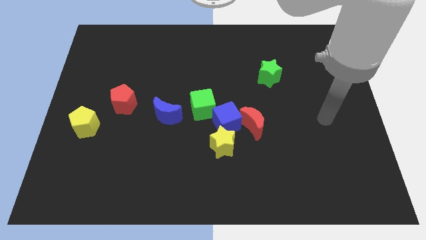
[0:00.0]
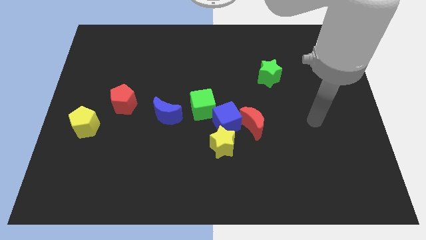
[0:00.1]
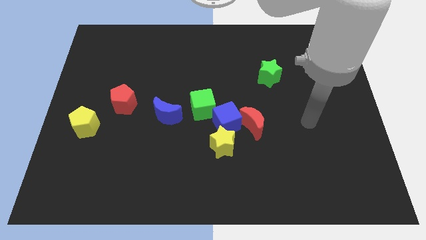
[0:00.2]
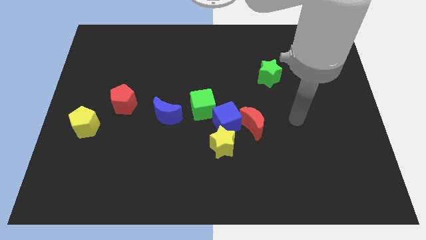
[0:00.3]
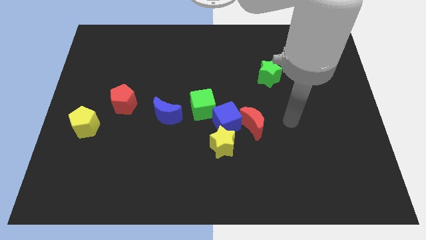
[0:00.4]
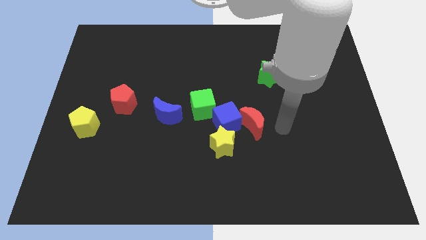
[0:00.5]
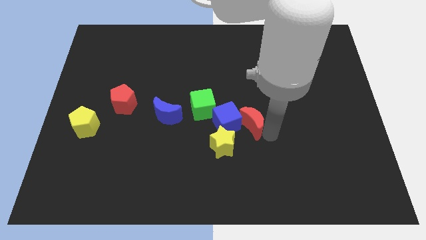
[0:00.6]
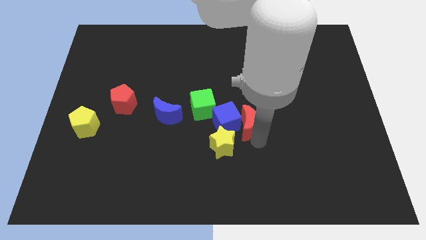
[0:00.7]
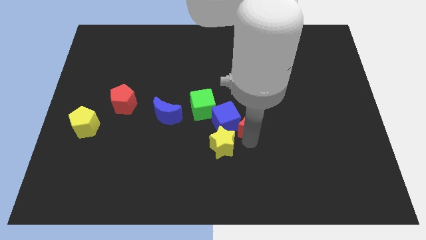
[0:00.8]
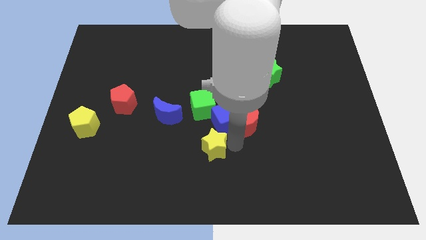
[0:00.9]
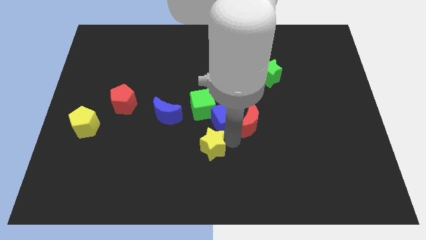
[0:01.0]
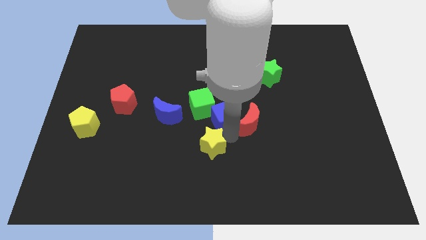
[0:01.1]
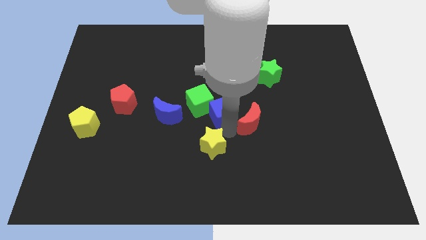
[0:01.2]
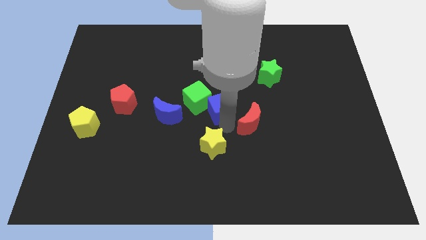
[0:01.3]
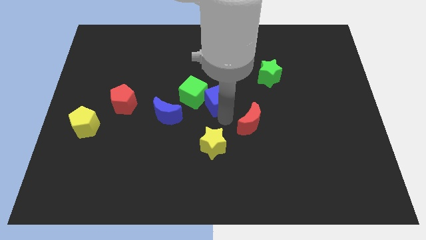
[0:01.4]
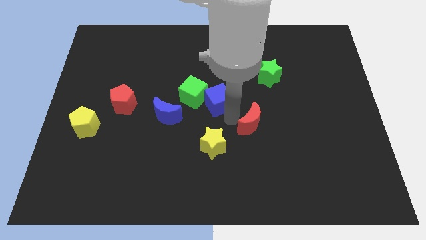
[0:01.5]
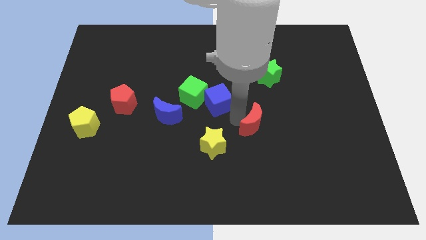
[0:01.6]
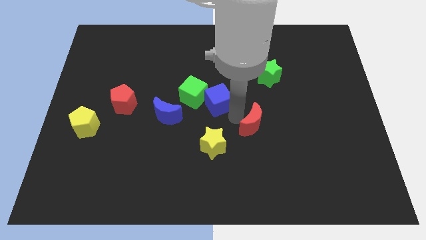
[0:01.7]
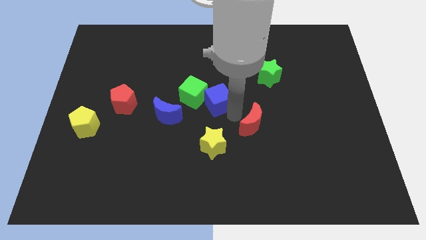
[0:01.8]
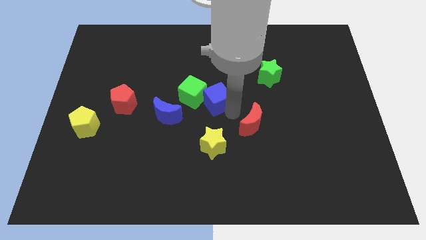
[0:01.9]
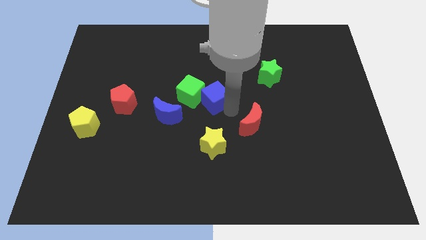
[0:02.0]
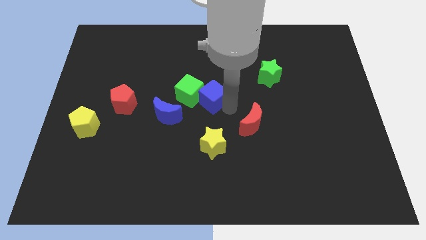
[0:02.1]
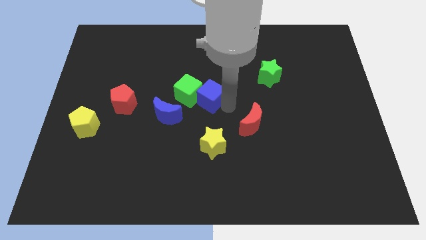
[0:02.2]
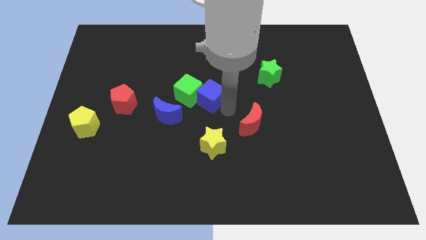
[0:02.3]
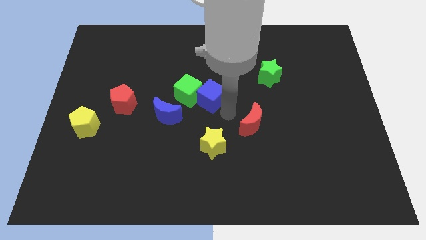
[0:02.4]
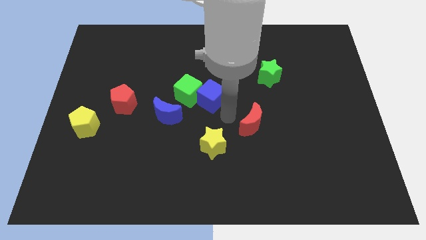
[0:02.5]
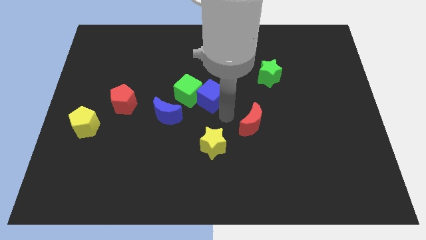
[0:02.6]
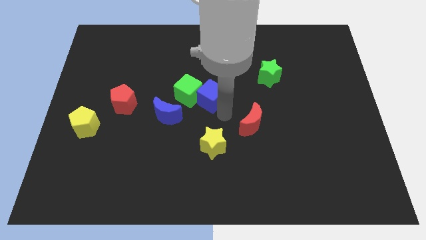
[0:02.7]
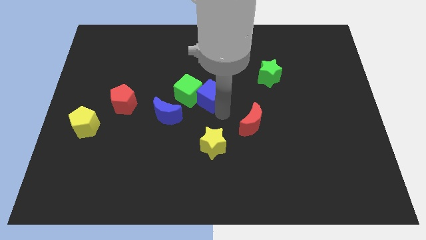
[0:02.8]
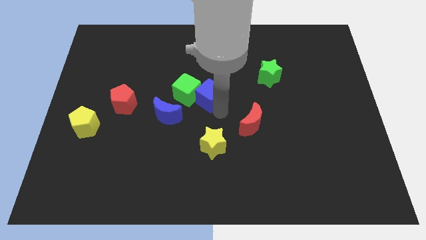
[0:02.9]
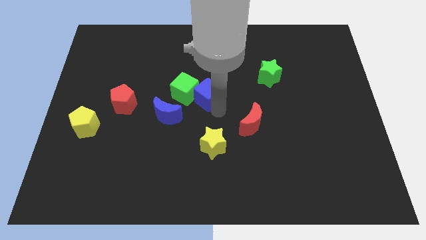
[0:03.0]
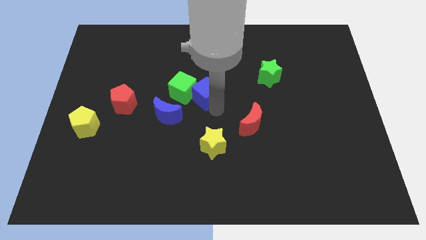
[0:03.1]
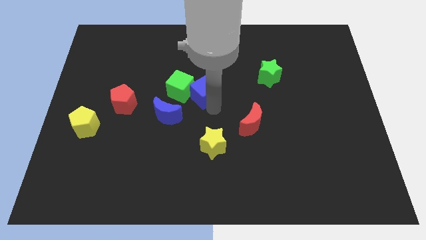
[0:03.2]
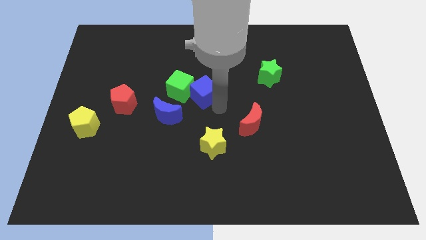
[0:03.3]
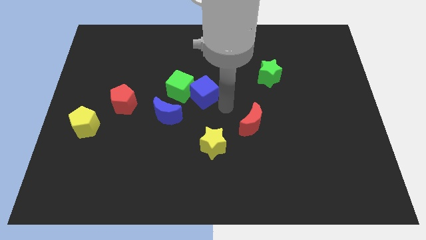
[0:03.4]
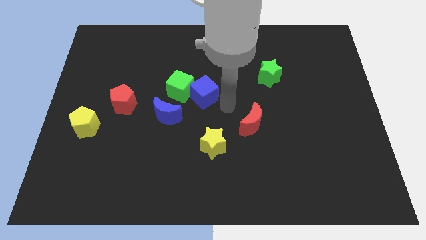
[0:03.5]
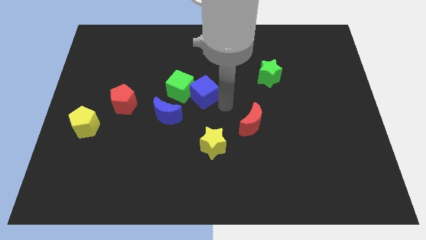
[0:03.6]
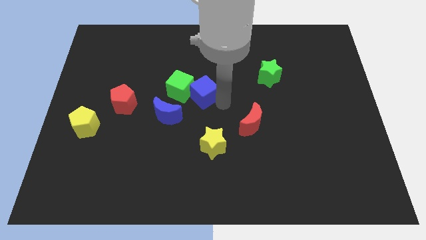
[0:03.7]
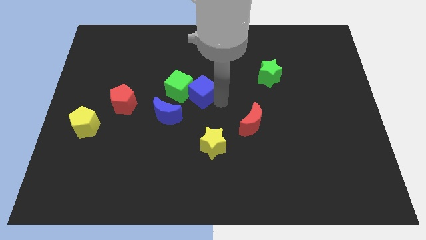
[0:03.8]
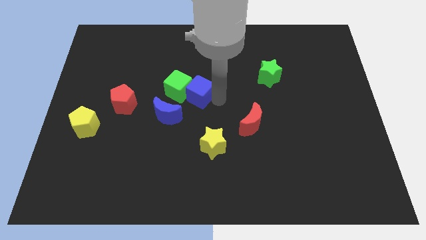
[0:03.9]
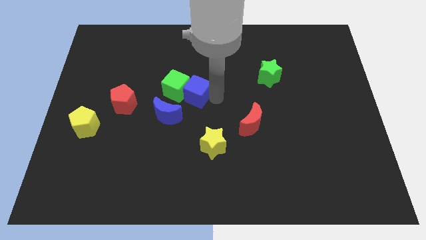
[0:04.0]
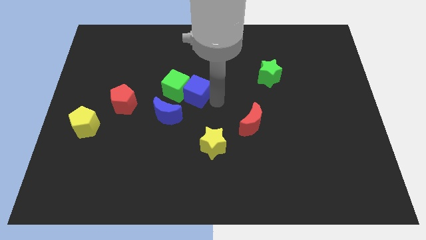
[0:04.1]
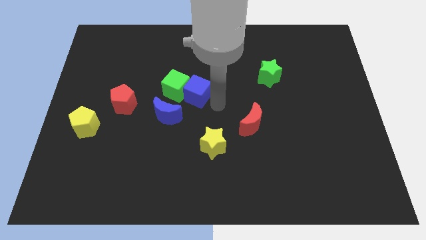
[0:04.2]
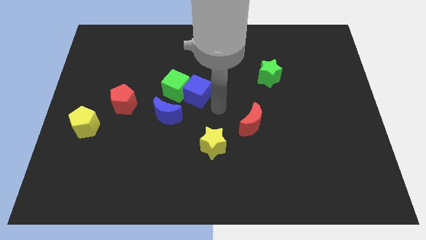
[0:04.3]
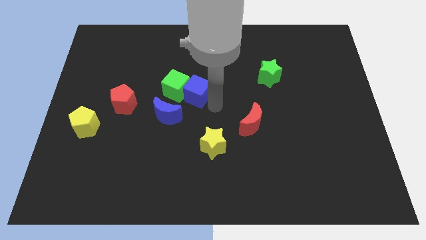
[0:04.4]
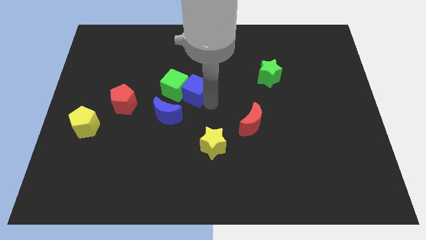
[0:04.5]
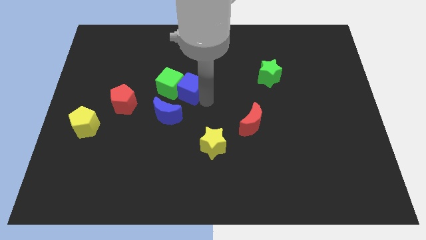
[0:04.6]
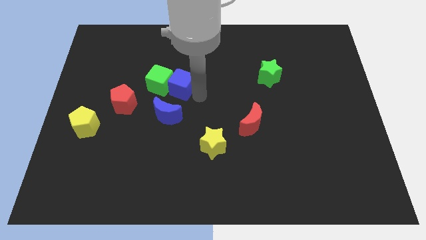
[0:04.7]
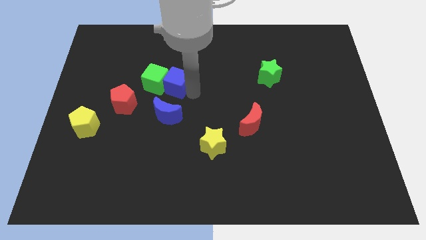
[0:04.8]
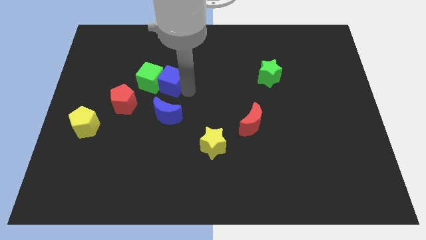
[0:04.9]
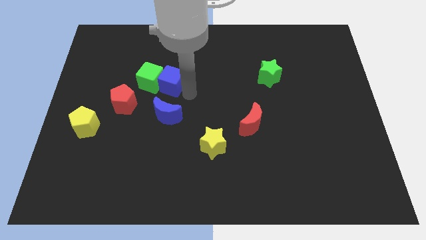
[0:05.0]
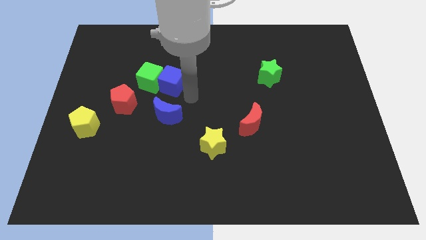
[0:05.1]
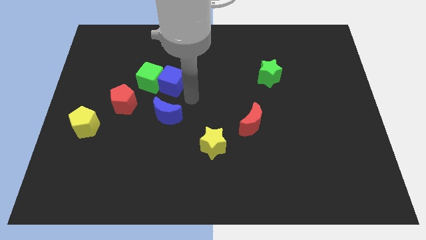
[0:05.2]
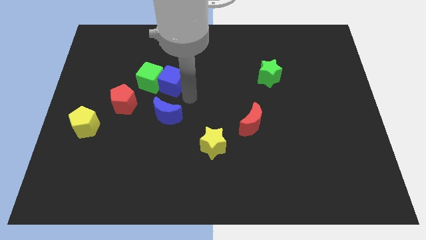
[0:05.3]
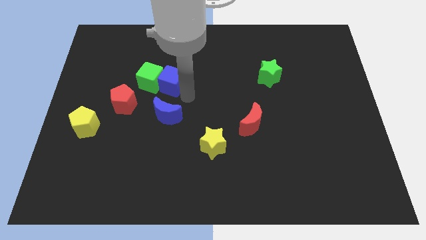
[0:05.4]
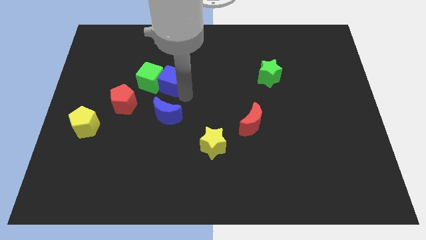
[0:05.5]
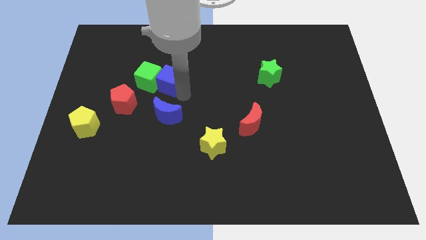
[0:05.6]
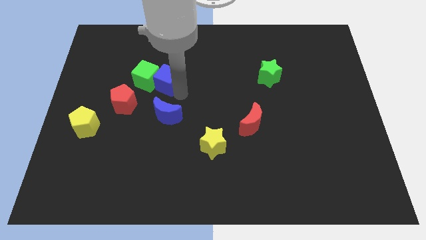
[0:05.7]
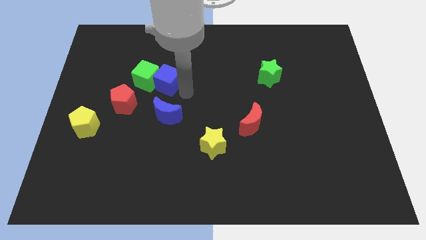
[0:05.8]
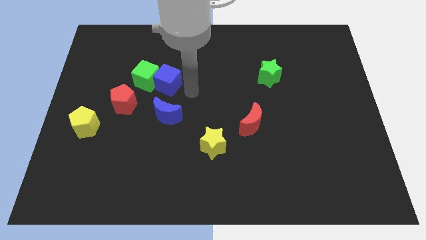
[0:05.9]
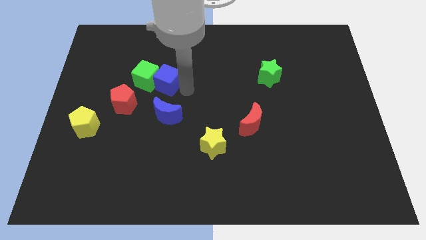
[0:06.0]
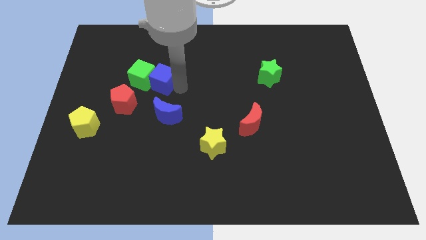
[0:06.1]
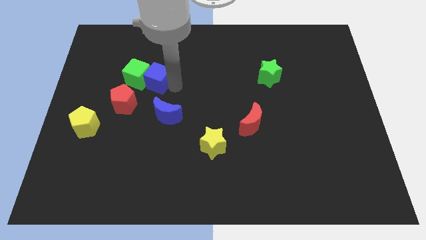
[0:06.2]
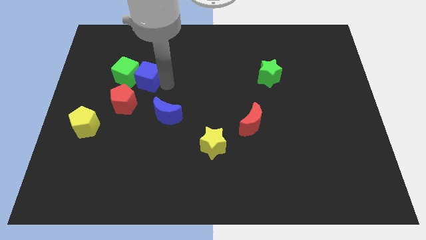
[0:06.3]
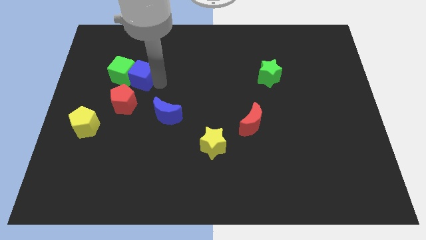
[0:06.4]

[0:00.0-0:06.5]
move the blue cube to the top side of the red pentagon

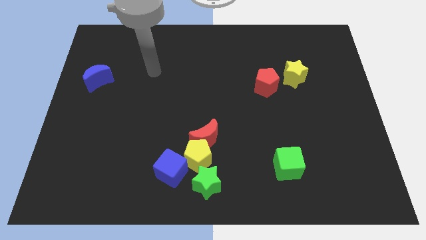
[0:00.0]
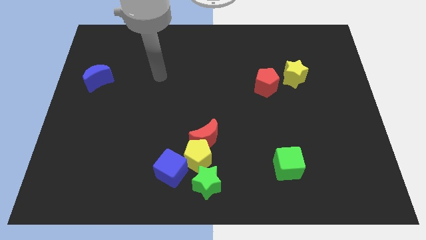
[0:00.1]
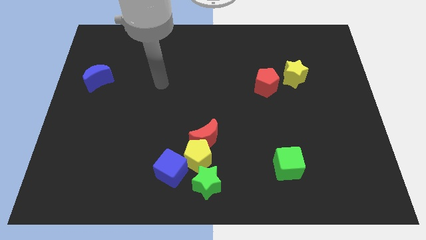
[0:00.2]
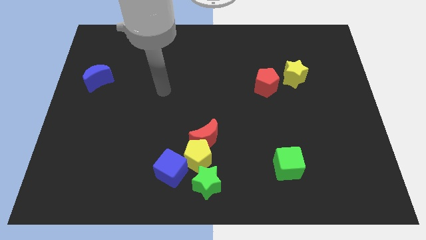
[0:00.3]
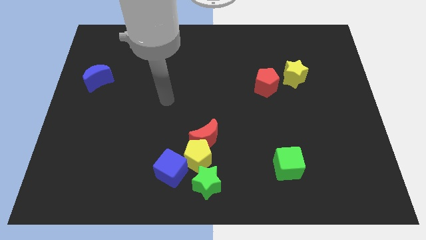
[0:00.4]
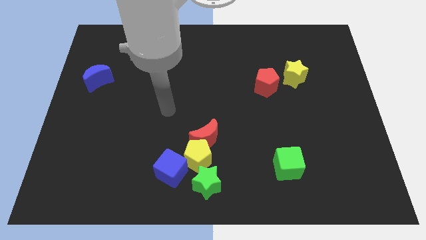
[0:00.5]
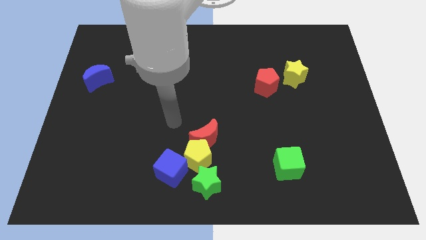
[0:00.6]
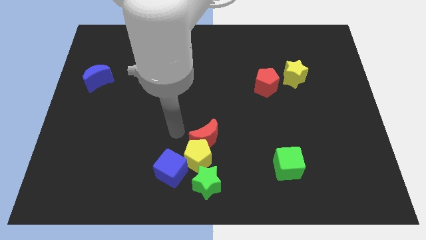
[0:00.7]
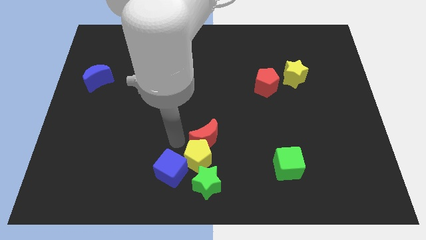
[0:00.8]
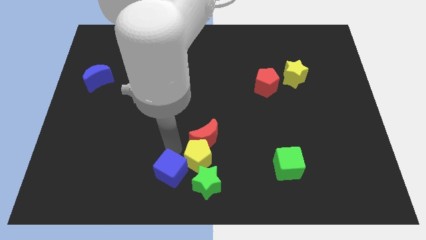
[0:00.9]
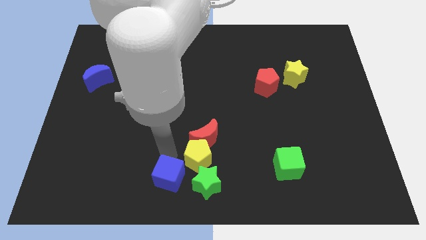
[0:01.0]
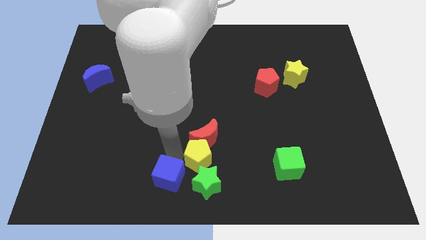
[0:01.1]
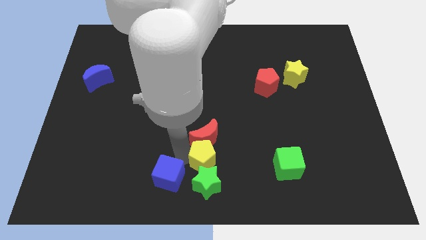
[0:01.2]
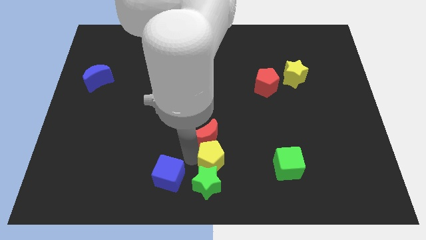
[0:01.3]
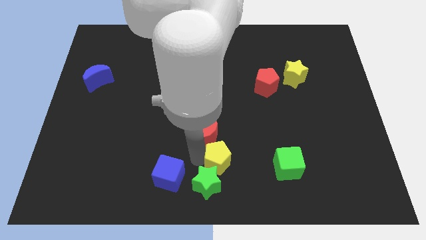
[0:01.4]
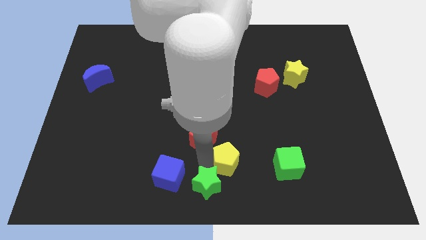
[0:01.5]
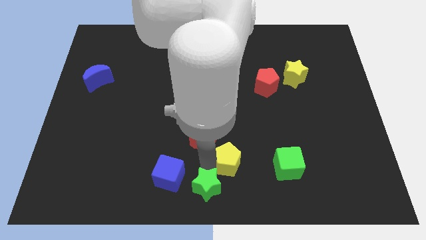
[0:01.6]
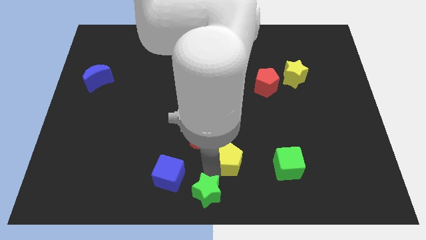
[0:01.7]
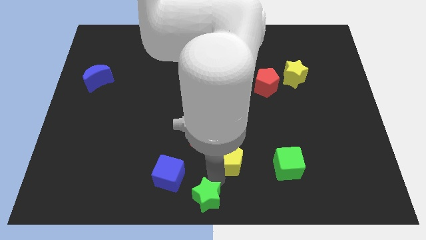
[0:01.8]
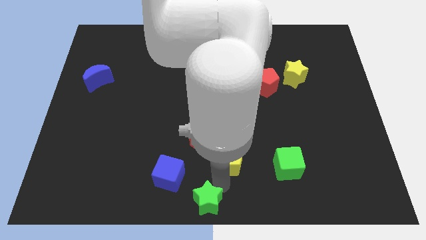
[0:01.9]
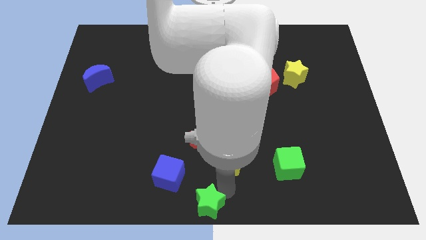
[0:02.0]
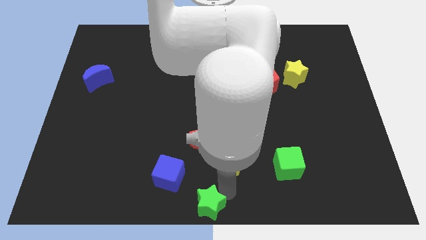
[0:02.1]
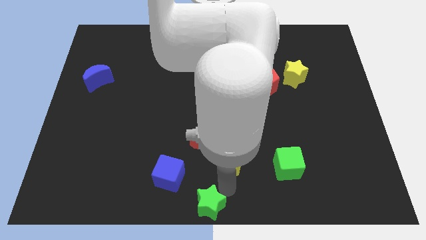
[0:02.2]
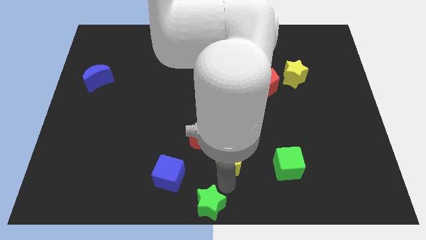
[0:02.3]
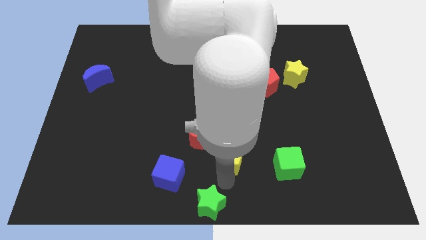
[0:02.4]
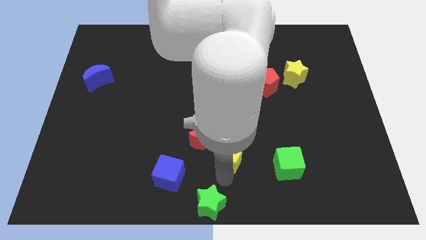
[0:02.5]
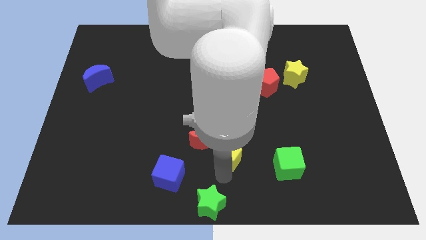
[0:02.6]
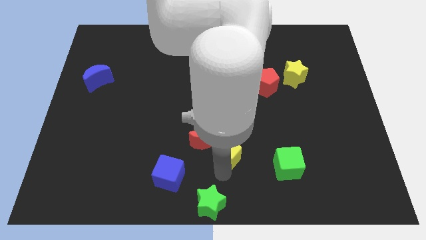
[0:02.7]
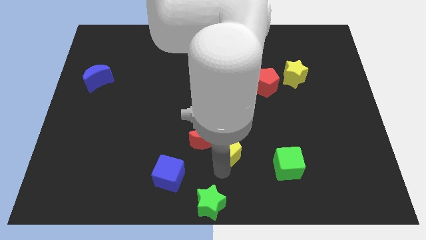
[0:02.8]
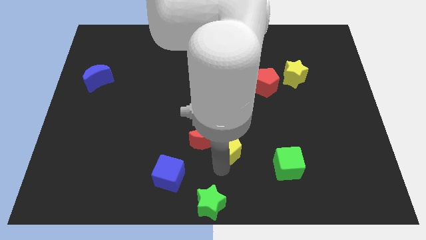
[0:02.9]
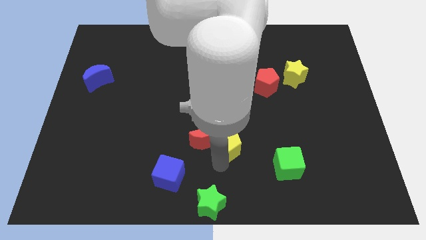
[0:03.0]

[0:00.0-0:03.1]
put the yellow pentagon to the top right of the red moon
